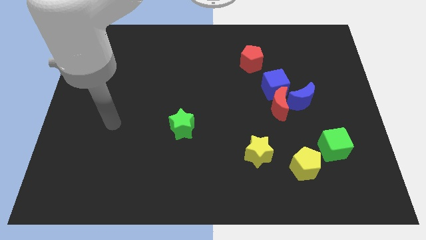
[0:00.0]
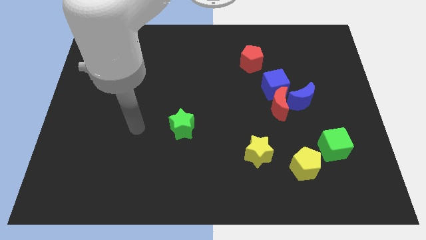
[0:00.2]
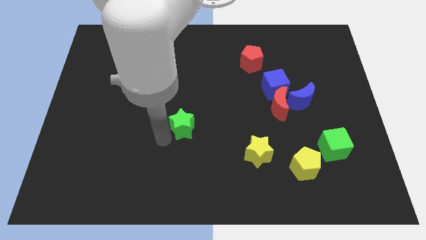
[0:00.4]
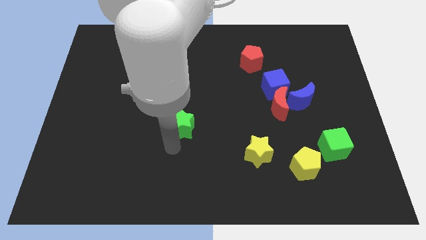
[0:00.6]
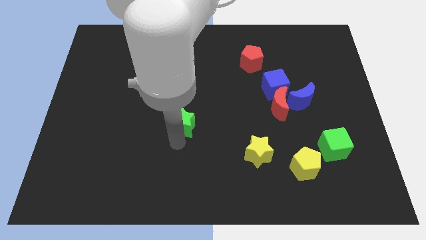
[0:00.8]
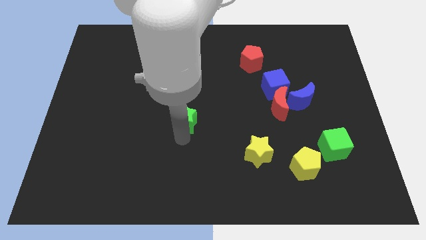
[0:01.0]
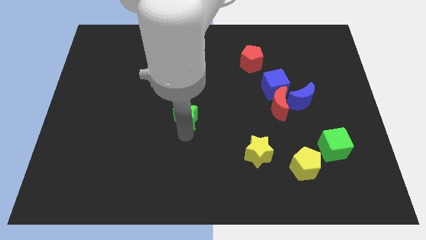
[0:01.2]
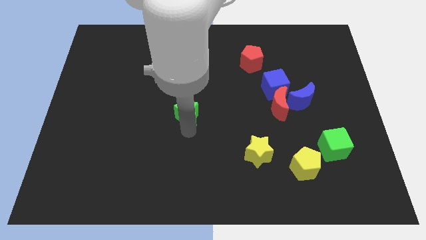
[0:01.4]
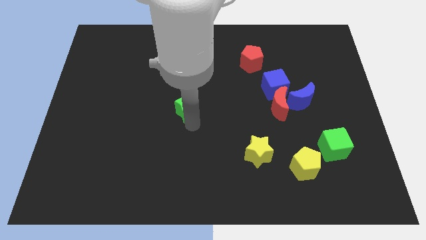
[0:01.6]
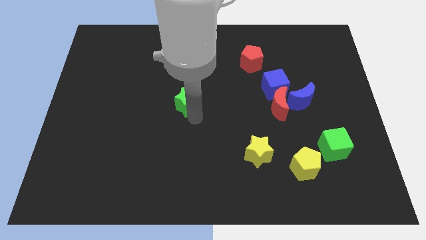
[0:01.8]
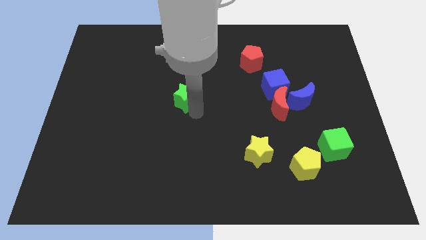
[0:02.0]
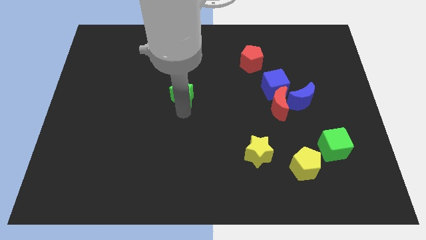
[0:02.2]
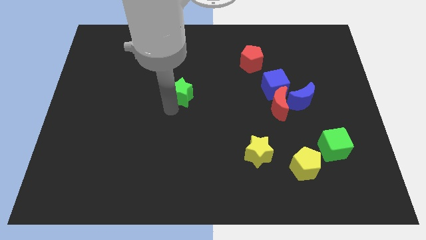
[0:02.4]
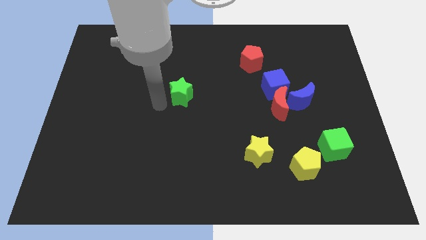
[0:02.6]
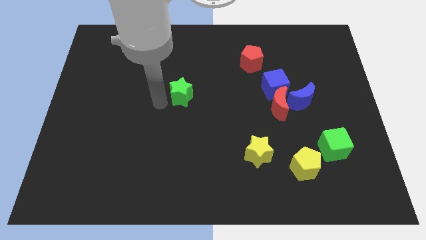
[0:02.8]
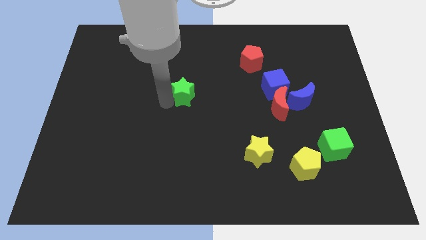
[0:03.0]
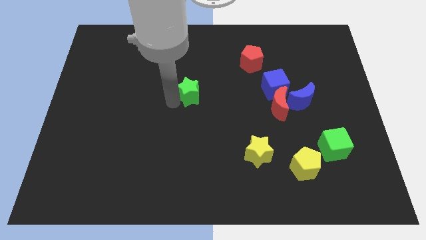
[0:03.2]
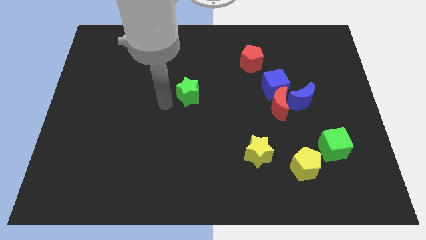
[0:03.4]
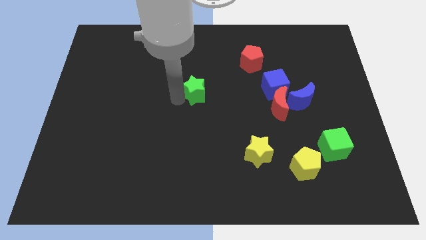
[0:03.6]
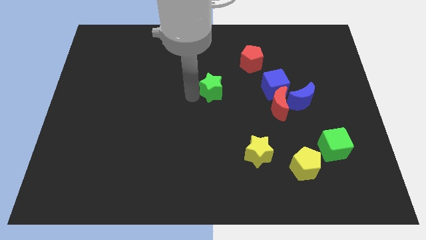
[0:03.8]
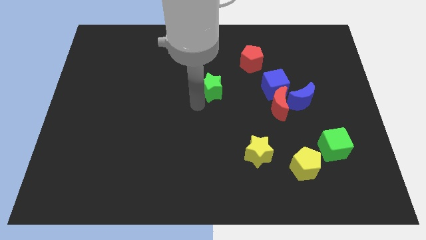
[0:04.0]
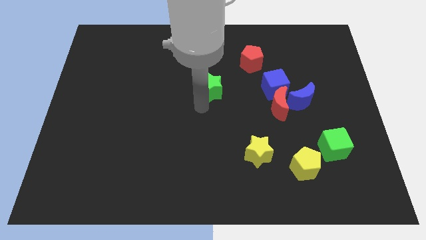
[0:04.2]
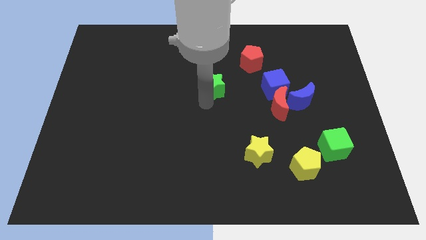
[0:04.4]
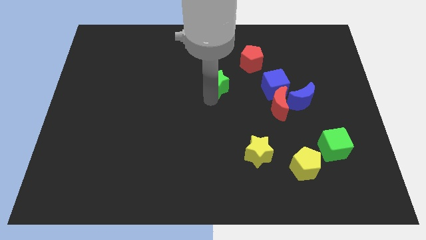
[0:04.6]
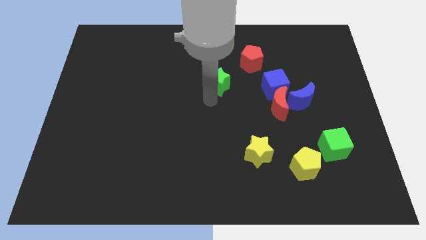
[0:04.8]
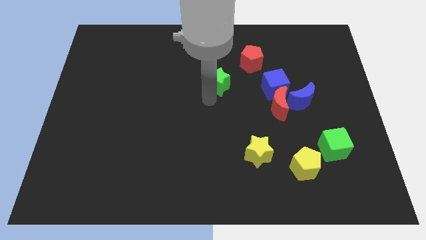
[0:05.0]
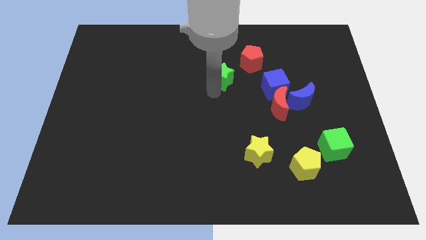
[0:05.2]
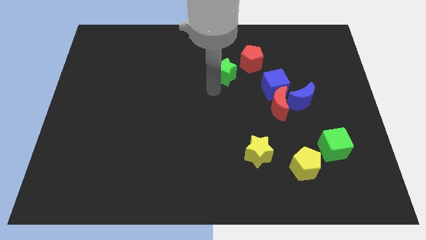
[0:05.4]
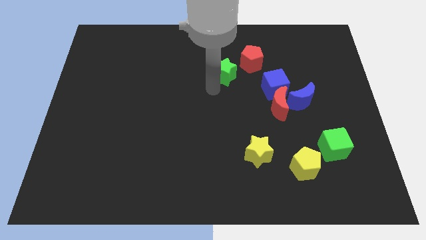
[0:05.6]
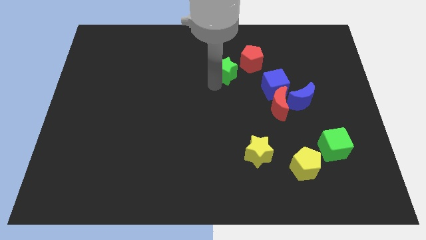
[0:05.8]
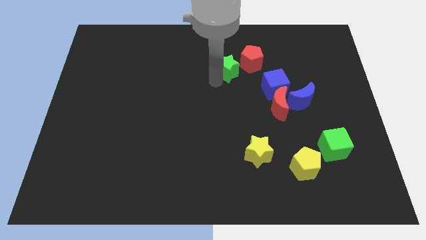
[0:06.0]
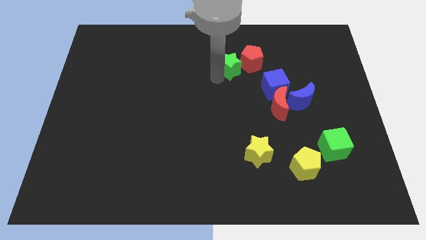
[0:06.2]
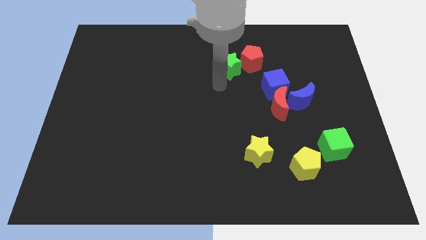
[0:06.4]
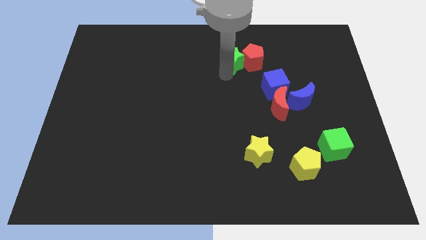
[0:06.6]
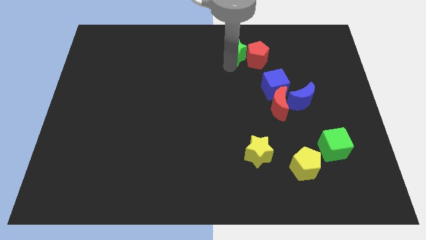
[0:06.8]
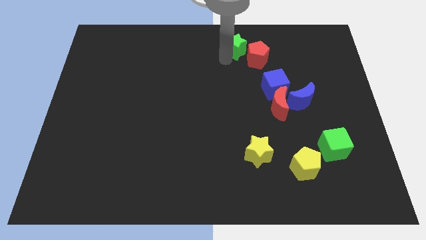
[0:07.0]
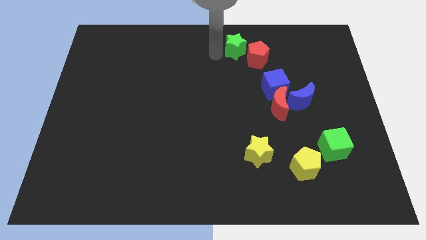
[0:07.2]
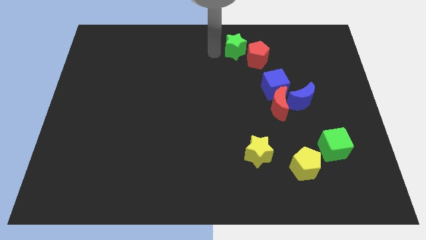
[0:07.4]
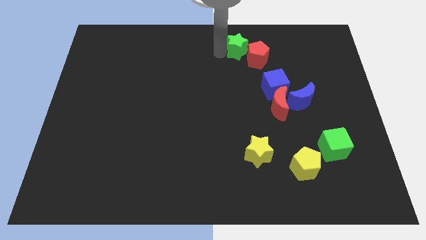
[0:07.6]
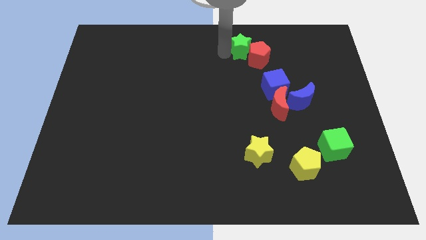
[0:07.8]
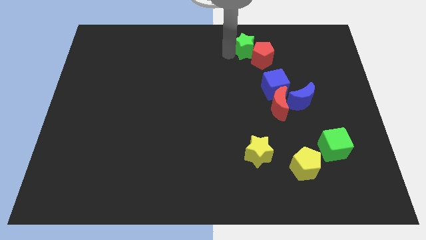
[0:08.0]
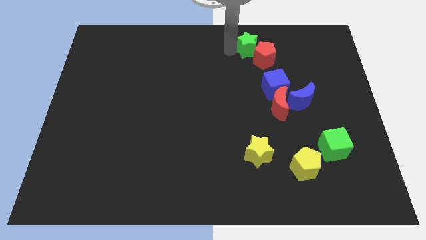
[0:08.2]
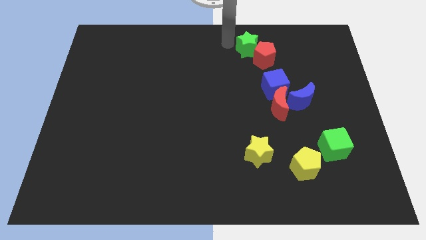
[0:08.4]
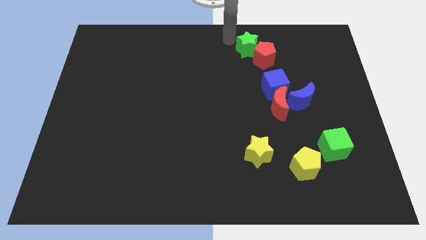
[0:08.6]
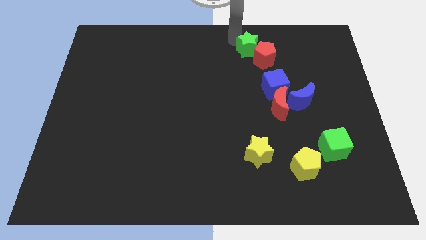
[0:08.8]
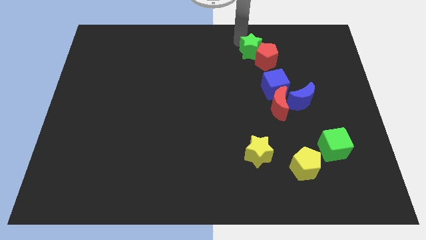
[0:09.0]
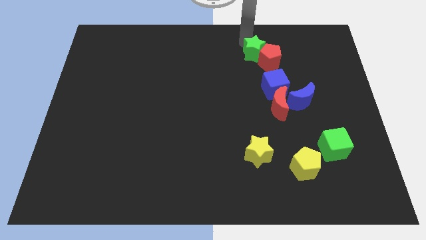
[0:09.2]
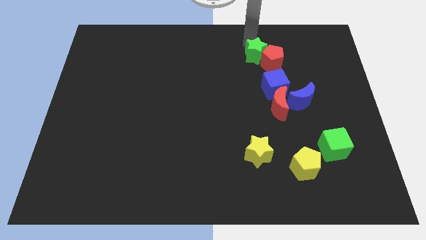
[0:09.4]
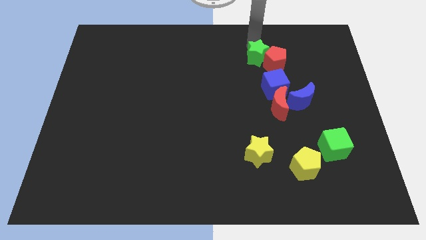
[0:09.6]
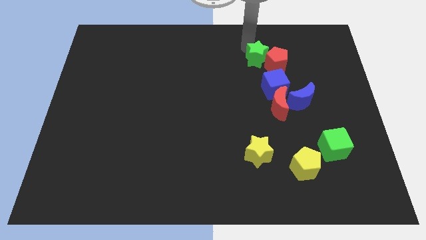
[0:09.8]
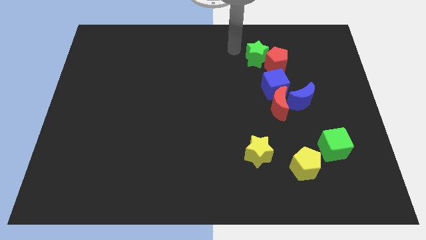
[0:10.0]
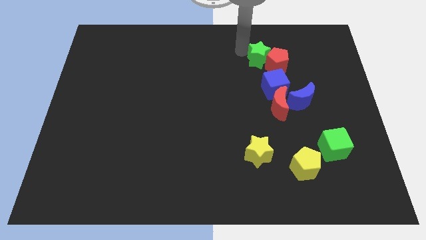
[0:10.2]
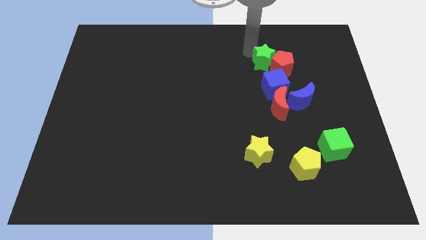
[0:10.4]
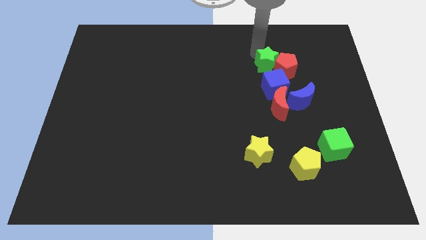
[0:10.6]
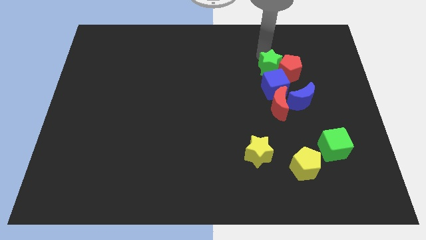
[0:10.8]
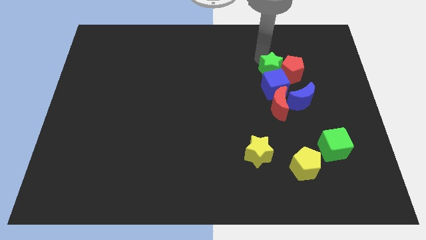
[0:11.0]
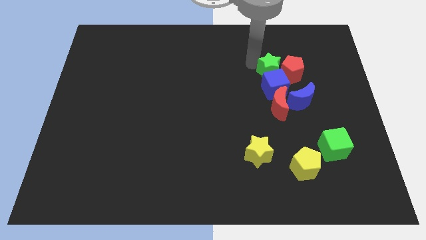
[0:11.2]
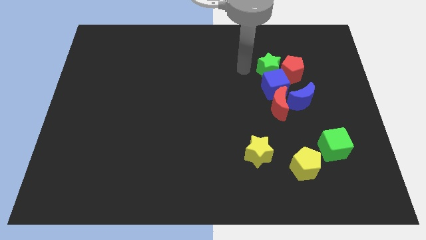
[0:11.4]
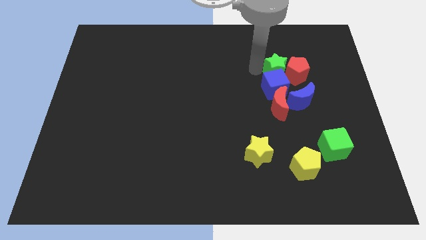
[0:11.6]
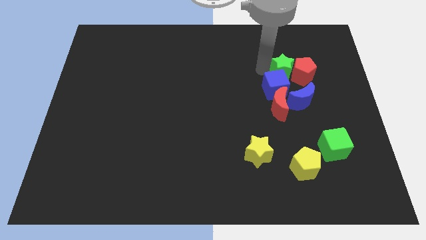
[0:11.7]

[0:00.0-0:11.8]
push the green star to the top side of the blue moon

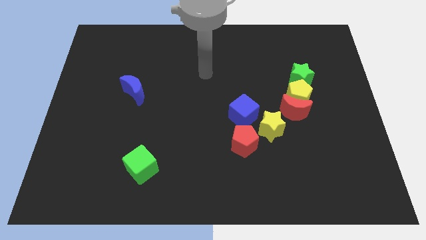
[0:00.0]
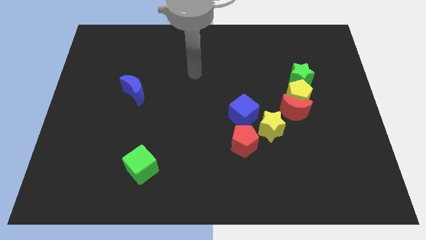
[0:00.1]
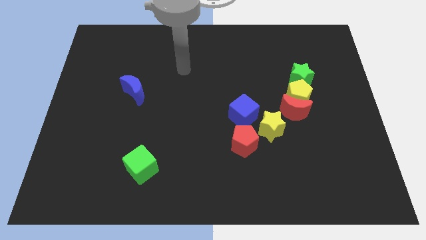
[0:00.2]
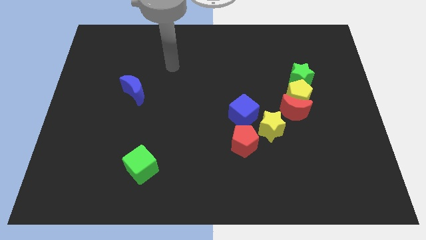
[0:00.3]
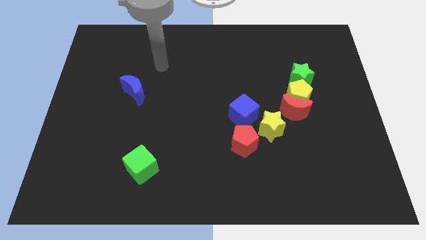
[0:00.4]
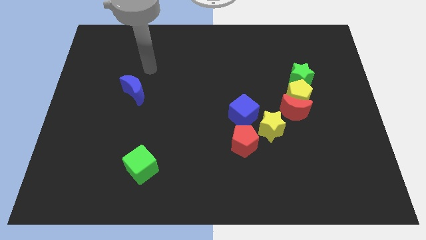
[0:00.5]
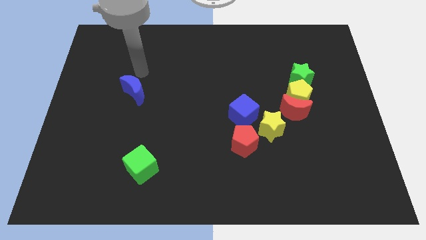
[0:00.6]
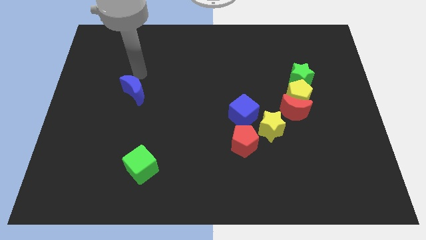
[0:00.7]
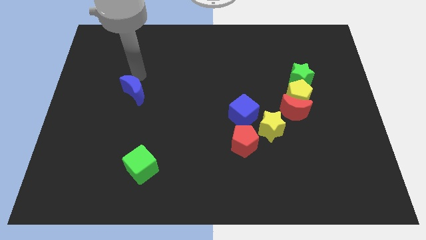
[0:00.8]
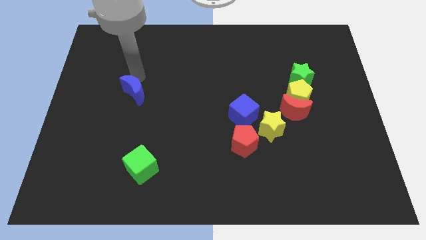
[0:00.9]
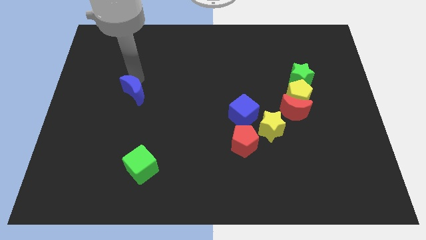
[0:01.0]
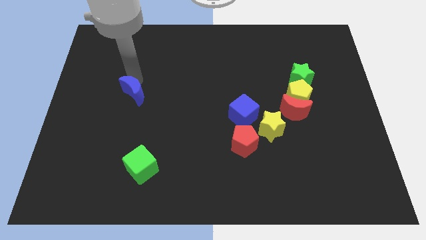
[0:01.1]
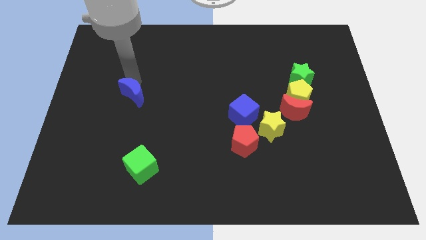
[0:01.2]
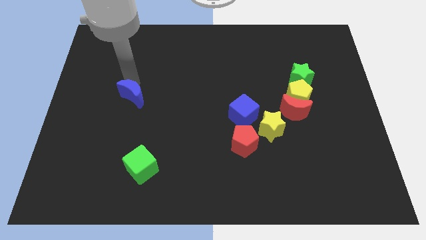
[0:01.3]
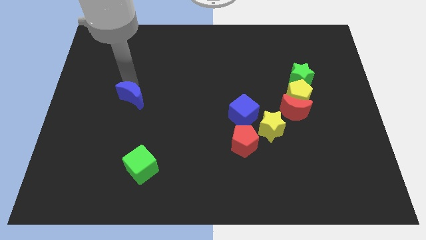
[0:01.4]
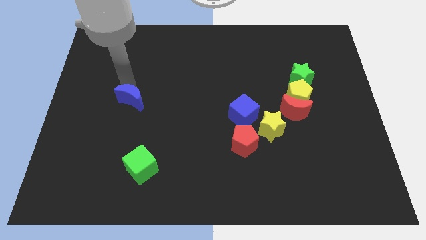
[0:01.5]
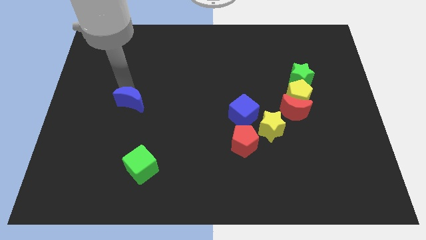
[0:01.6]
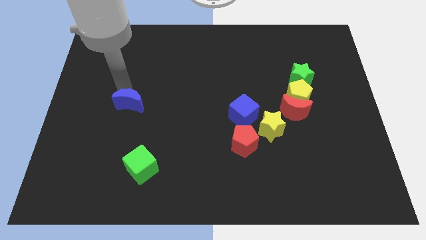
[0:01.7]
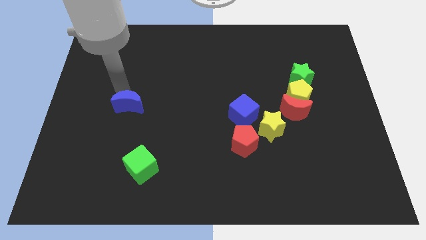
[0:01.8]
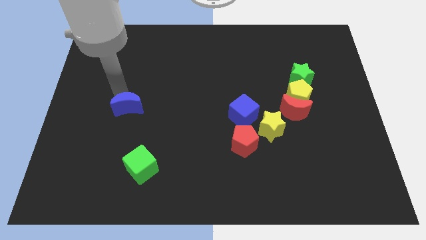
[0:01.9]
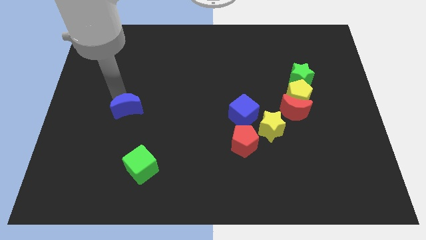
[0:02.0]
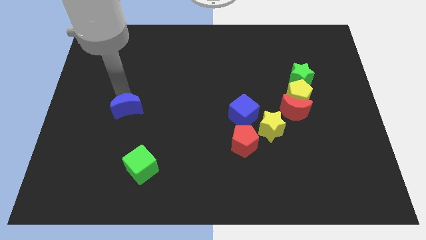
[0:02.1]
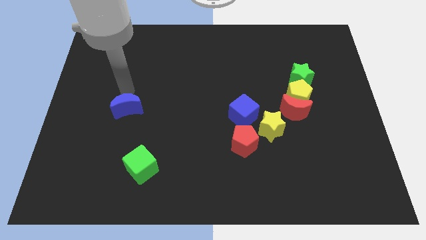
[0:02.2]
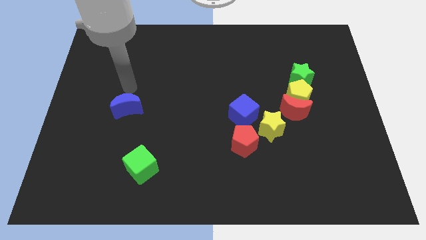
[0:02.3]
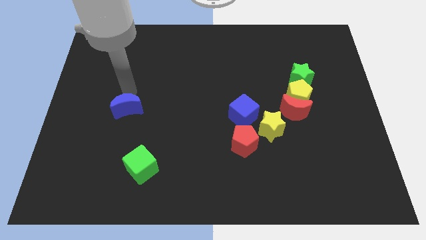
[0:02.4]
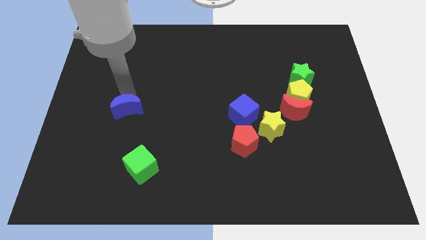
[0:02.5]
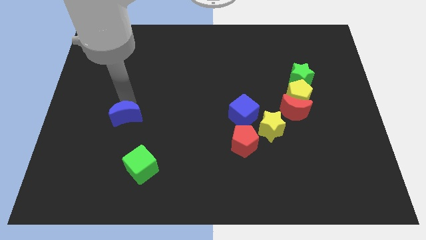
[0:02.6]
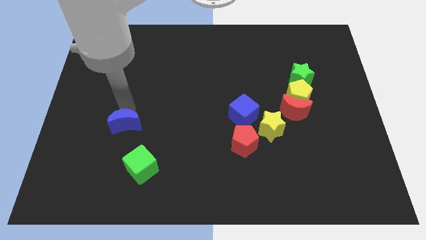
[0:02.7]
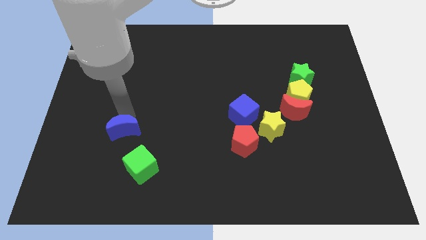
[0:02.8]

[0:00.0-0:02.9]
move the blue moon diagonally up and to the left of the green cube
